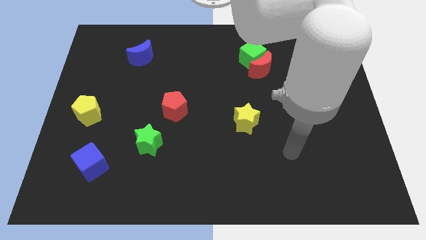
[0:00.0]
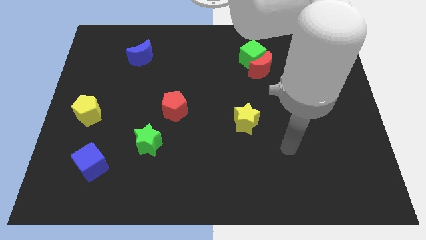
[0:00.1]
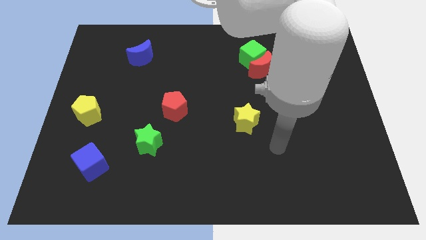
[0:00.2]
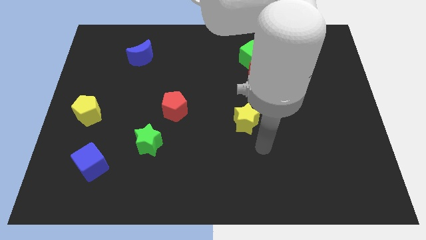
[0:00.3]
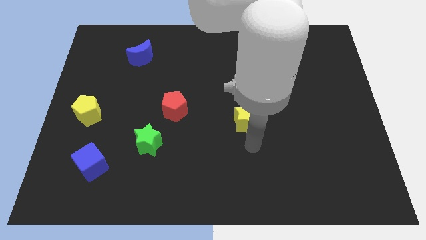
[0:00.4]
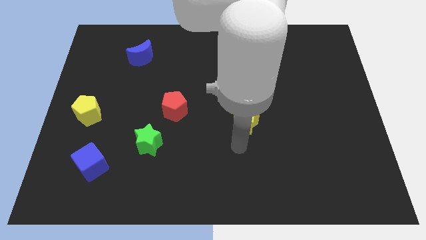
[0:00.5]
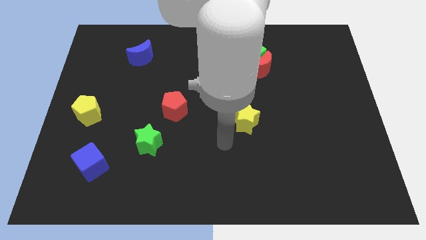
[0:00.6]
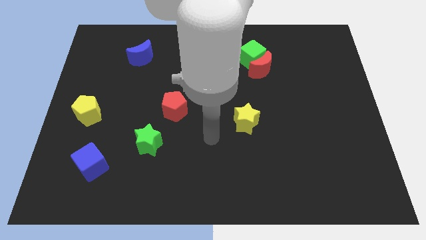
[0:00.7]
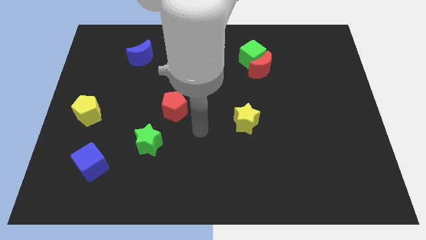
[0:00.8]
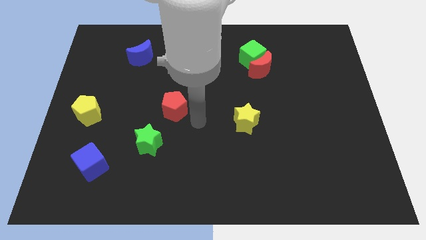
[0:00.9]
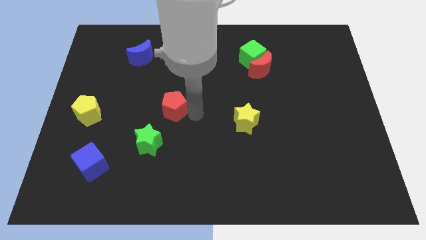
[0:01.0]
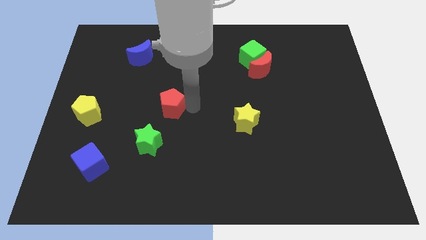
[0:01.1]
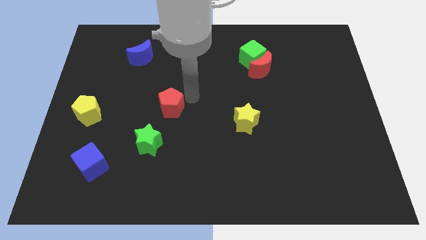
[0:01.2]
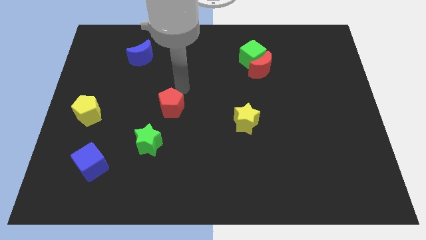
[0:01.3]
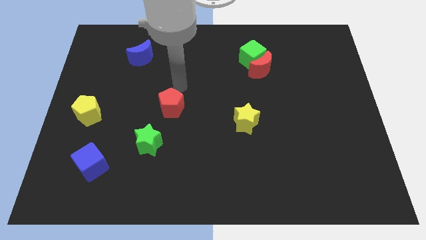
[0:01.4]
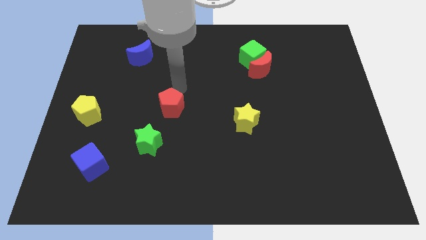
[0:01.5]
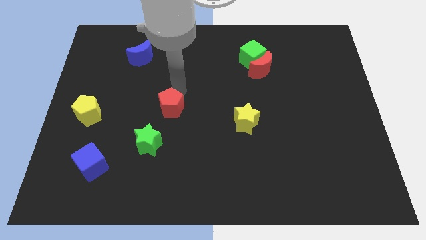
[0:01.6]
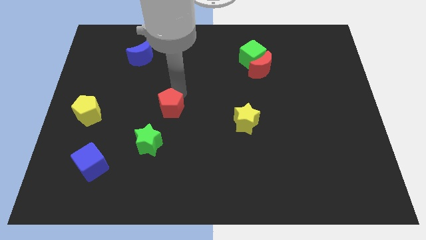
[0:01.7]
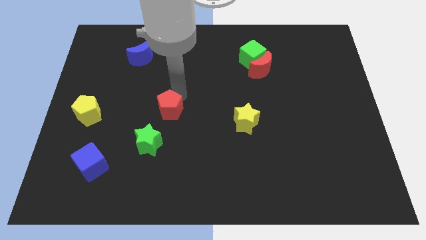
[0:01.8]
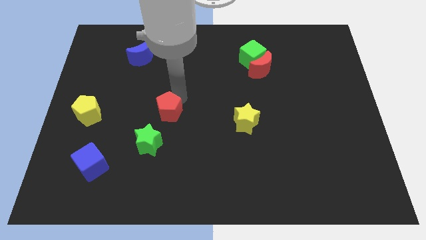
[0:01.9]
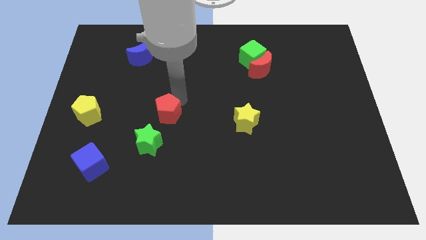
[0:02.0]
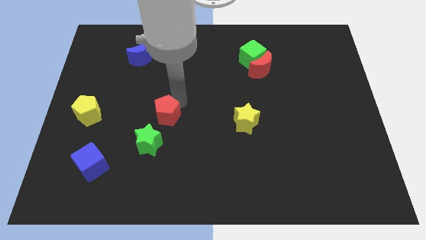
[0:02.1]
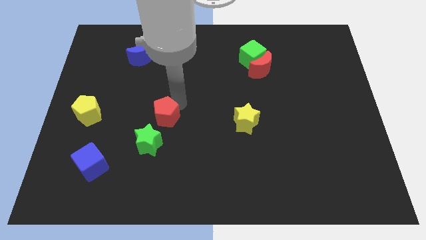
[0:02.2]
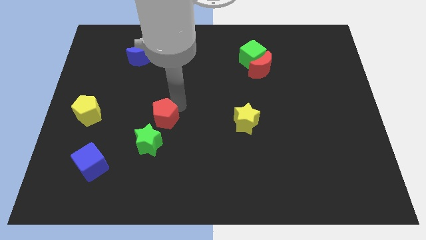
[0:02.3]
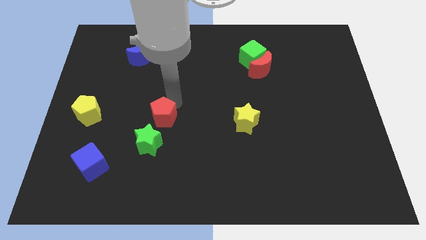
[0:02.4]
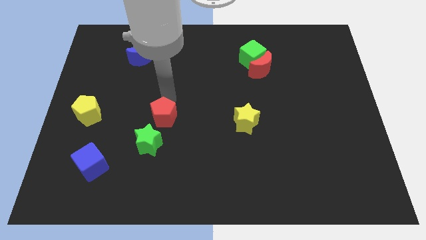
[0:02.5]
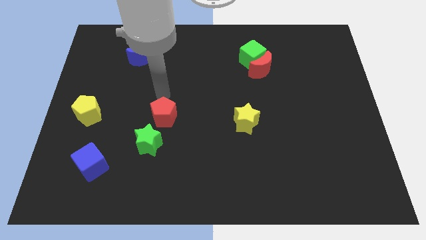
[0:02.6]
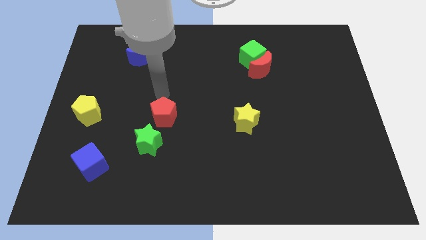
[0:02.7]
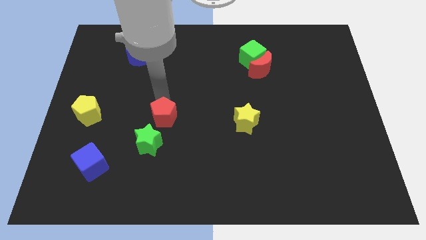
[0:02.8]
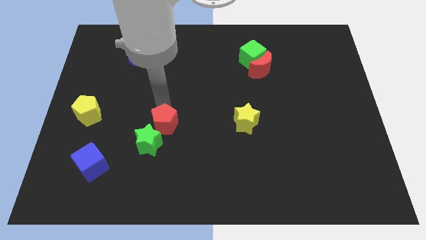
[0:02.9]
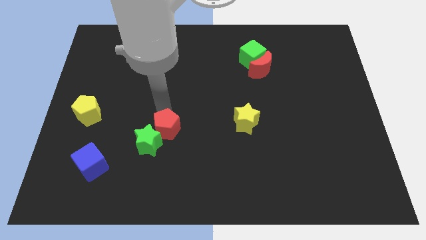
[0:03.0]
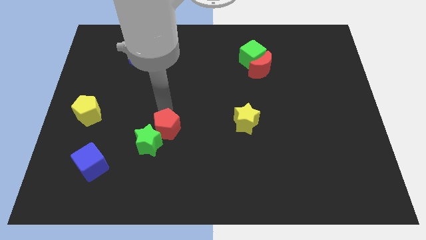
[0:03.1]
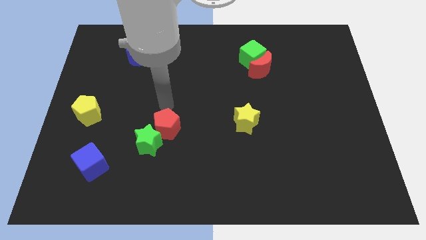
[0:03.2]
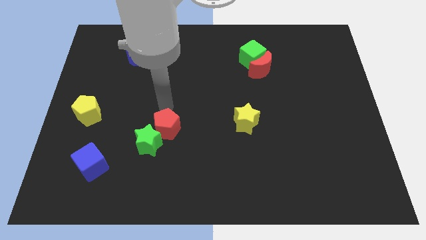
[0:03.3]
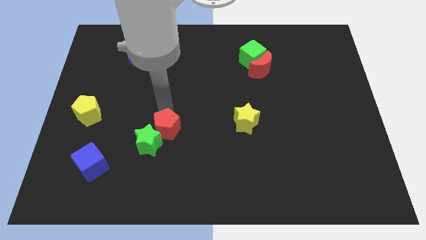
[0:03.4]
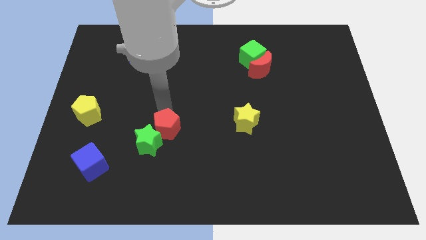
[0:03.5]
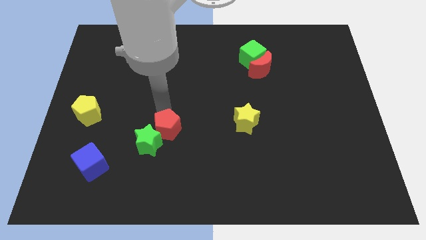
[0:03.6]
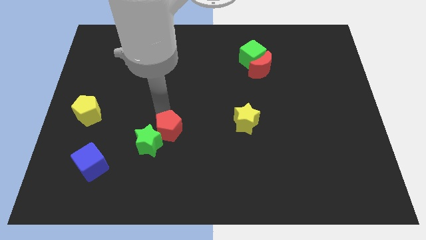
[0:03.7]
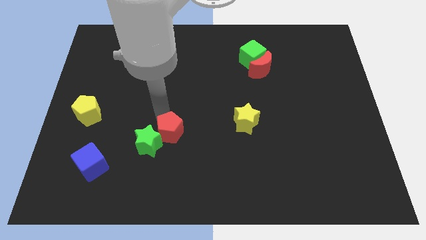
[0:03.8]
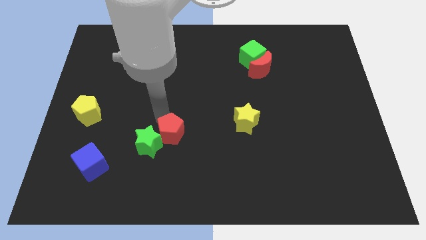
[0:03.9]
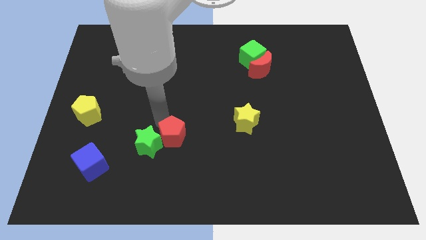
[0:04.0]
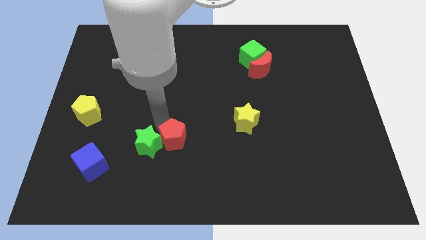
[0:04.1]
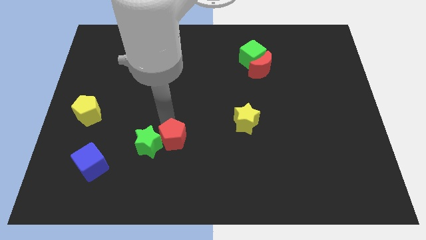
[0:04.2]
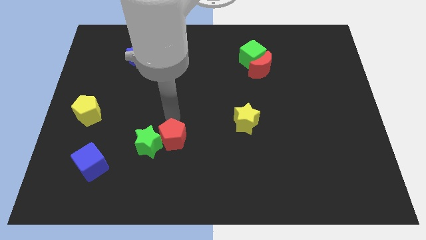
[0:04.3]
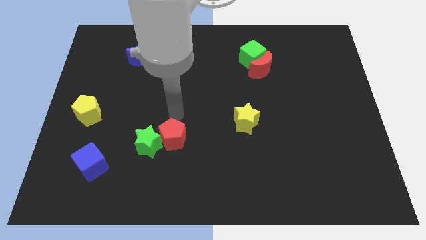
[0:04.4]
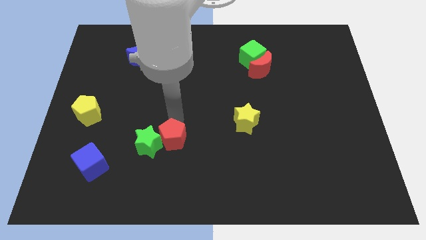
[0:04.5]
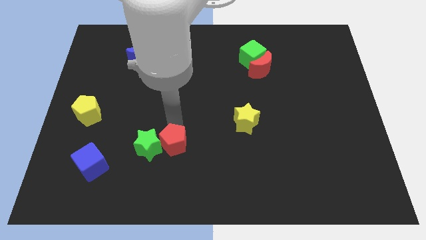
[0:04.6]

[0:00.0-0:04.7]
push the red pentagon to the bottom right side of the green star

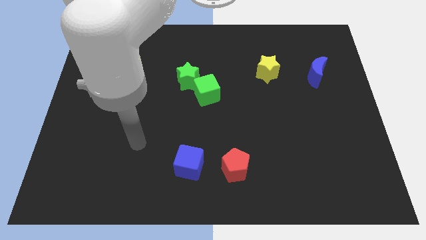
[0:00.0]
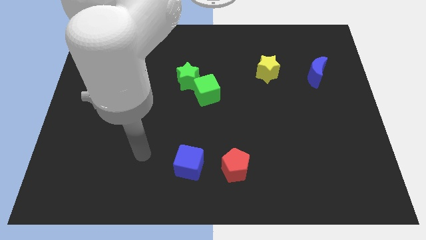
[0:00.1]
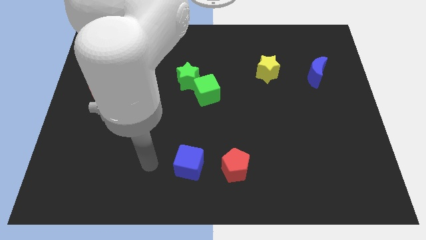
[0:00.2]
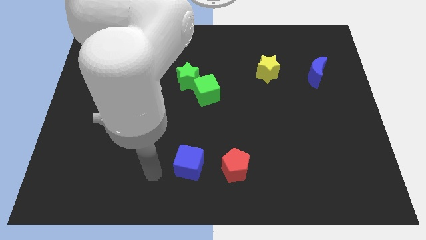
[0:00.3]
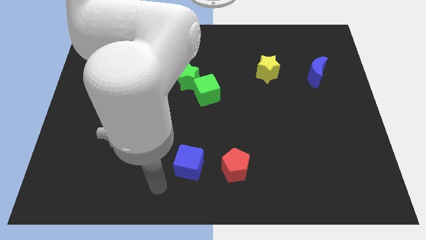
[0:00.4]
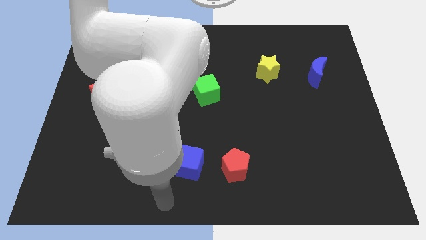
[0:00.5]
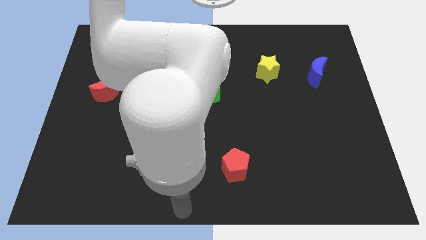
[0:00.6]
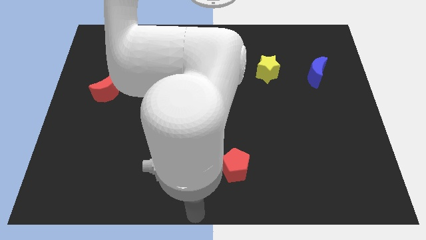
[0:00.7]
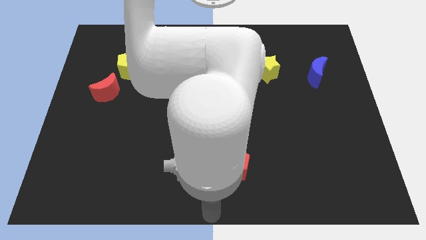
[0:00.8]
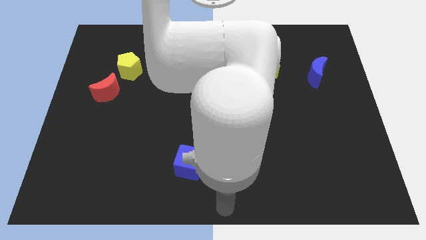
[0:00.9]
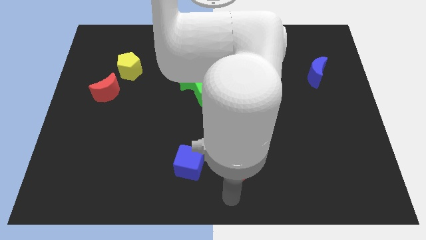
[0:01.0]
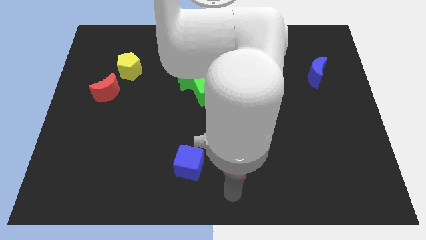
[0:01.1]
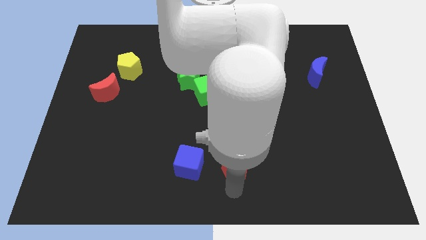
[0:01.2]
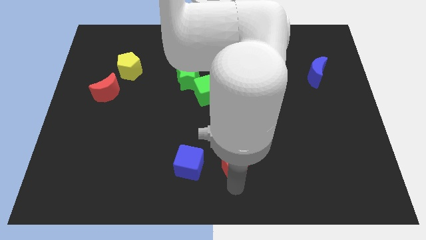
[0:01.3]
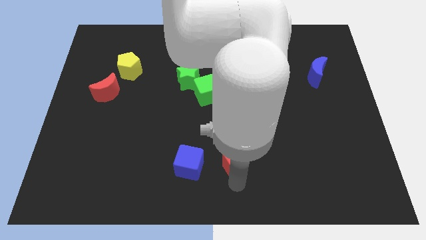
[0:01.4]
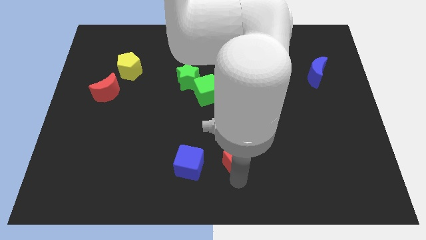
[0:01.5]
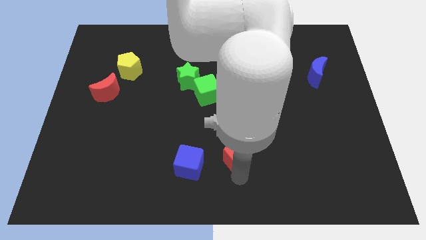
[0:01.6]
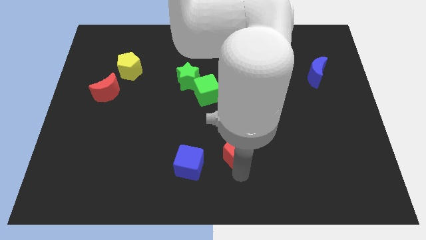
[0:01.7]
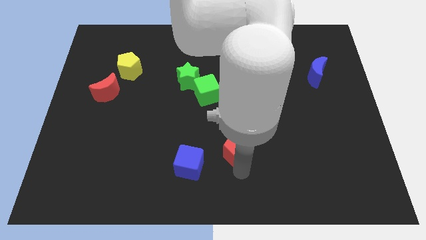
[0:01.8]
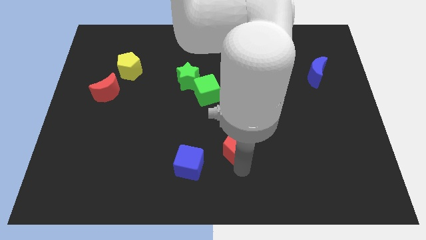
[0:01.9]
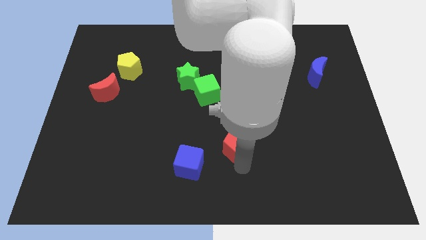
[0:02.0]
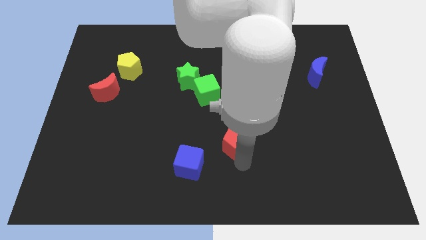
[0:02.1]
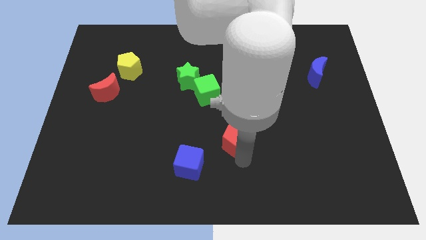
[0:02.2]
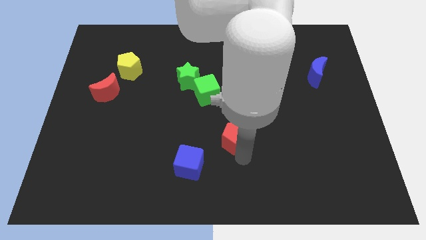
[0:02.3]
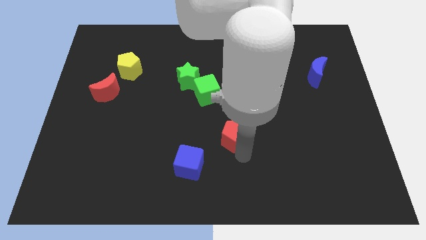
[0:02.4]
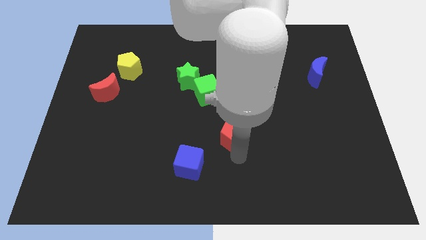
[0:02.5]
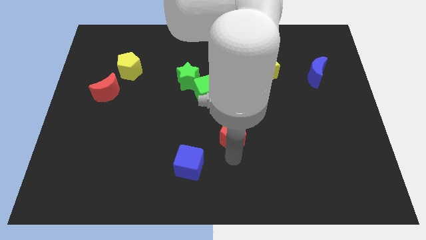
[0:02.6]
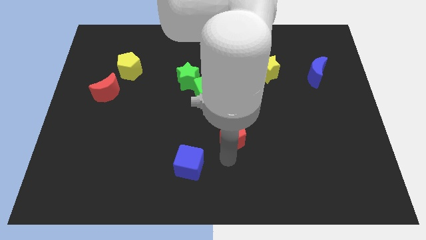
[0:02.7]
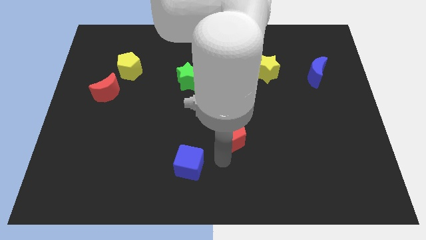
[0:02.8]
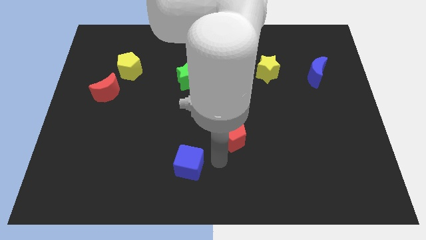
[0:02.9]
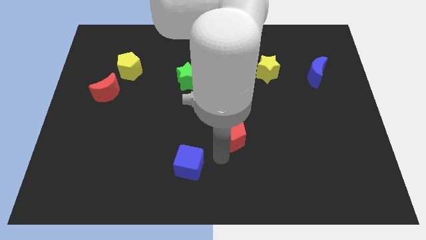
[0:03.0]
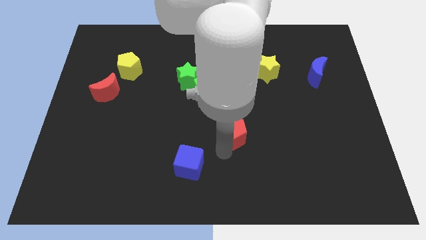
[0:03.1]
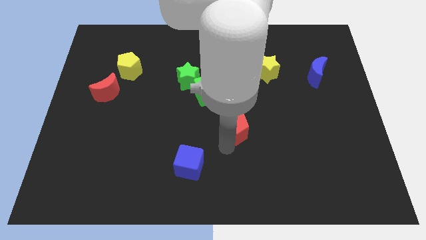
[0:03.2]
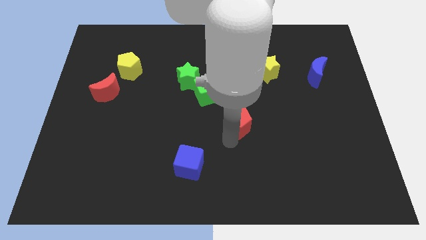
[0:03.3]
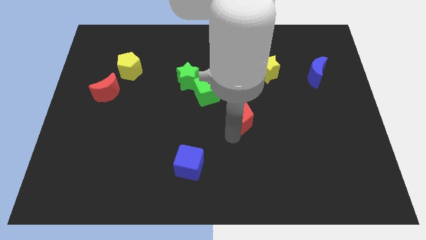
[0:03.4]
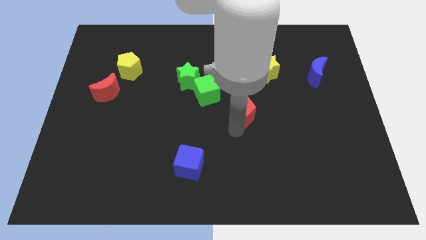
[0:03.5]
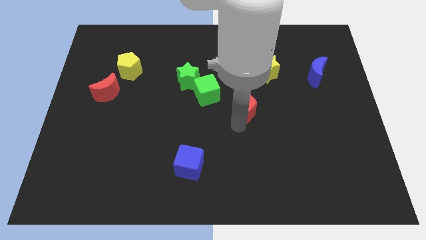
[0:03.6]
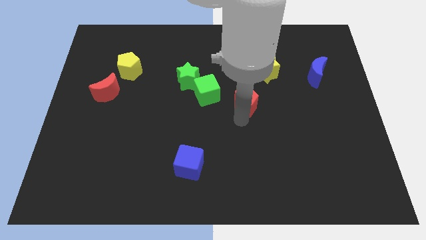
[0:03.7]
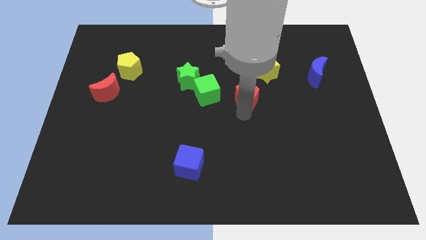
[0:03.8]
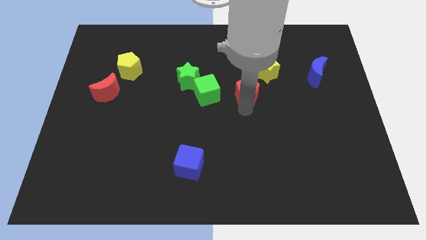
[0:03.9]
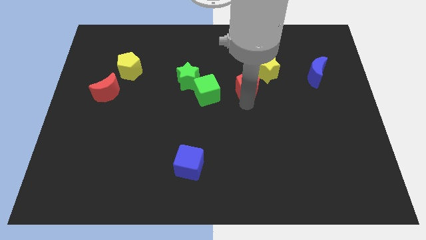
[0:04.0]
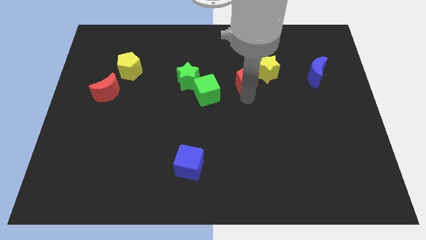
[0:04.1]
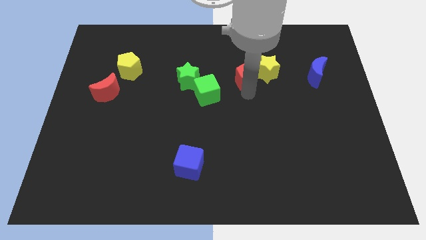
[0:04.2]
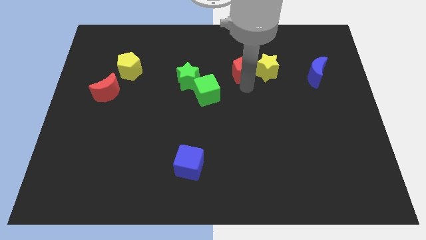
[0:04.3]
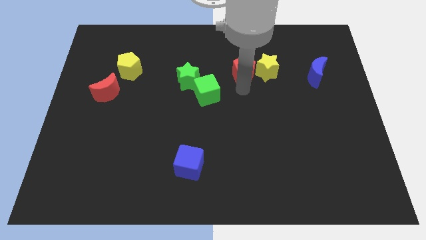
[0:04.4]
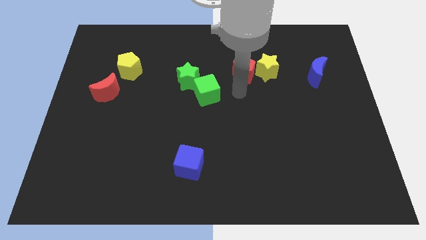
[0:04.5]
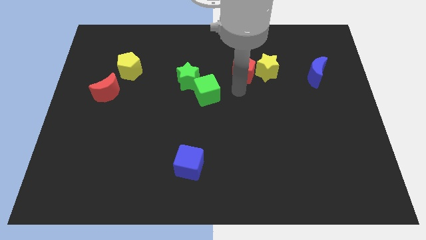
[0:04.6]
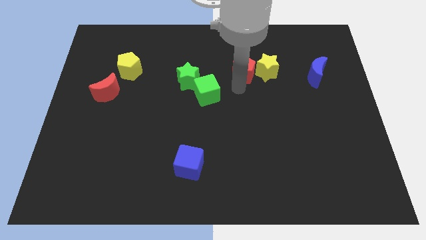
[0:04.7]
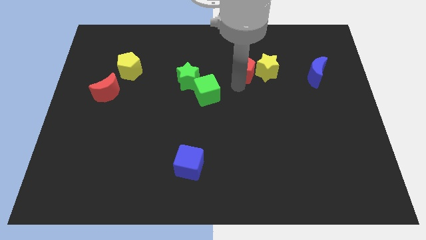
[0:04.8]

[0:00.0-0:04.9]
move the red pentagon to the top left of the yellow star
